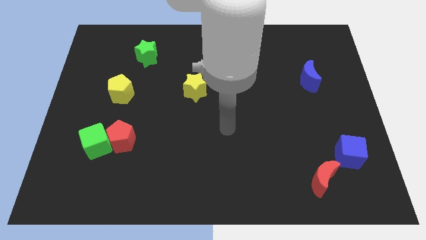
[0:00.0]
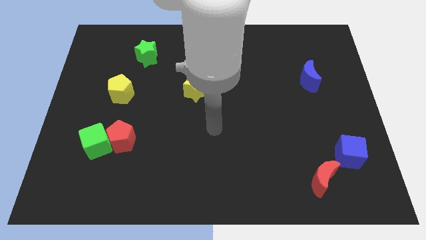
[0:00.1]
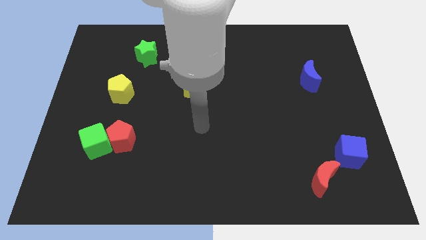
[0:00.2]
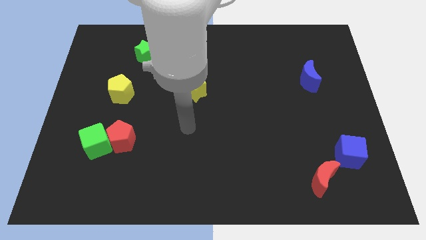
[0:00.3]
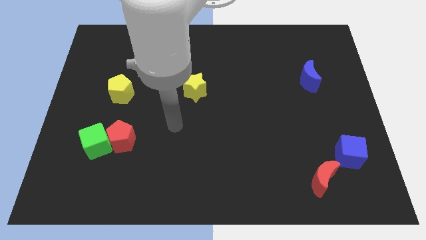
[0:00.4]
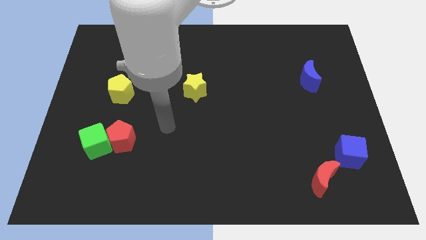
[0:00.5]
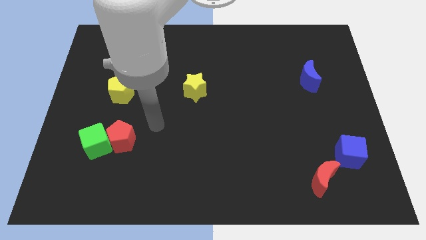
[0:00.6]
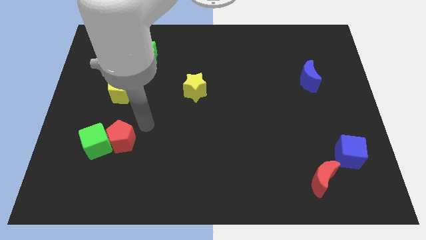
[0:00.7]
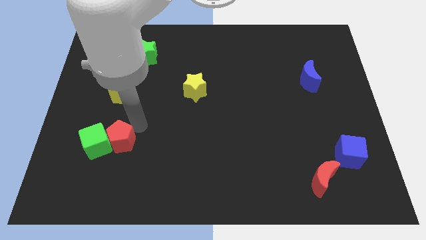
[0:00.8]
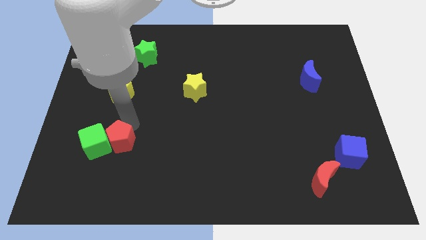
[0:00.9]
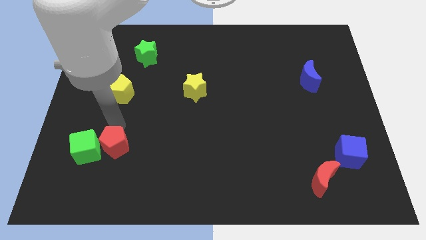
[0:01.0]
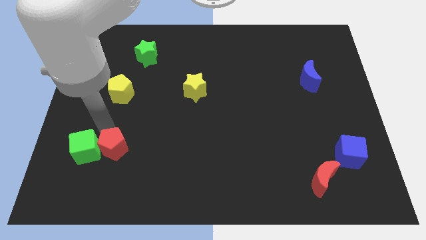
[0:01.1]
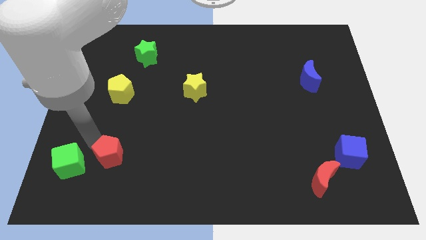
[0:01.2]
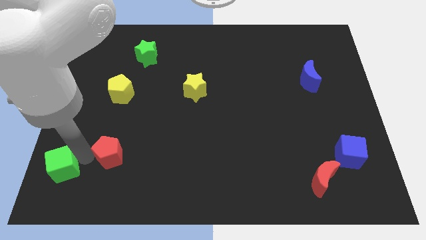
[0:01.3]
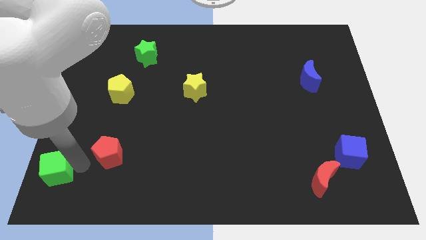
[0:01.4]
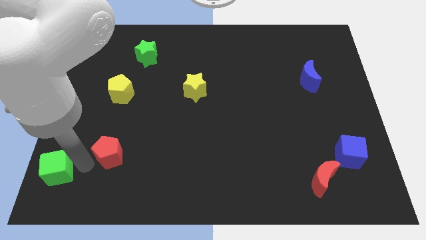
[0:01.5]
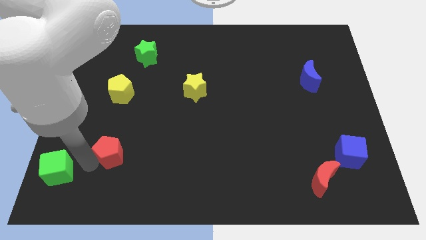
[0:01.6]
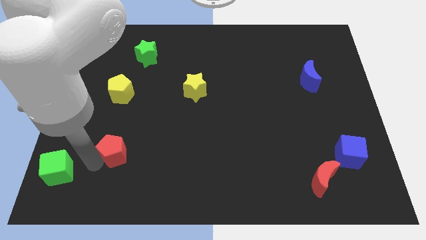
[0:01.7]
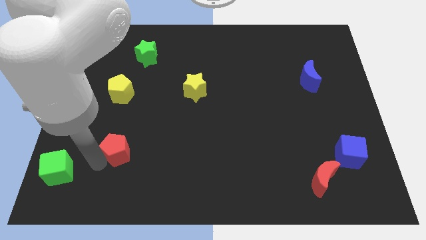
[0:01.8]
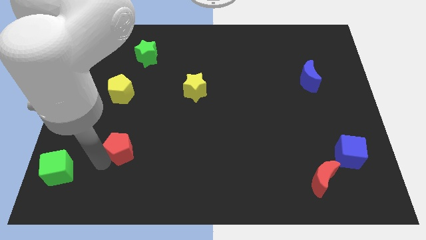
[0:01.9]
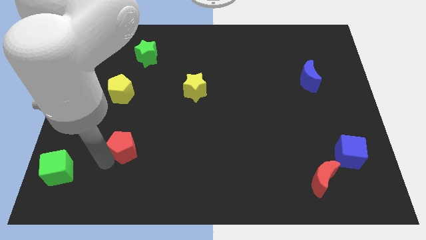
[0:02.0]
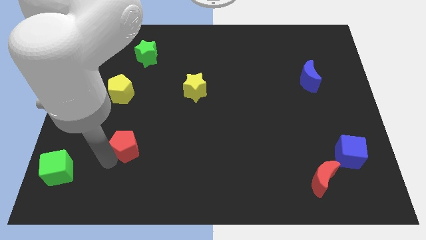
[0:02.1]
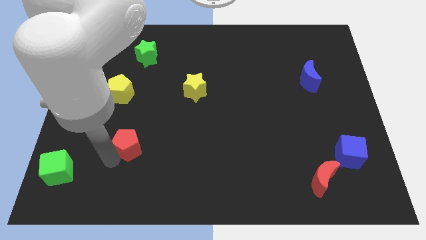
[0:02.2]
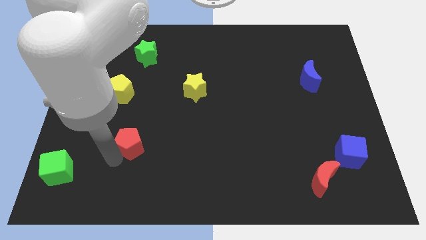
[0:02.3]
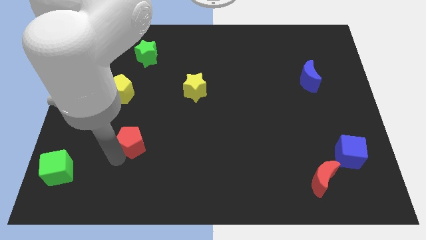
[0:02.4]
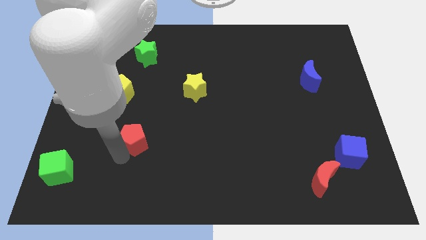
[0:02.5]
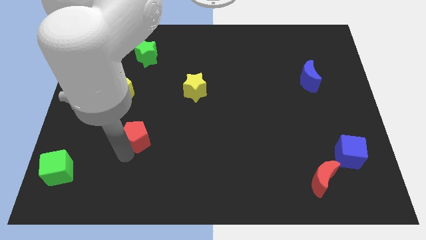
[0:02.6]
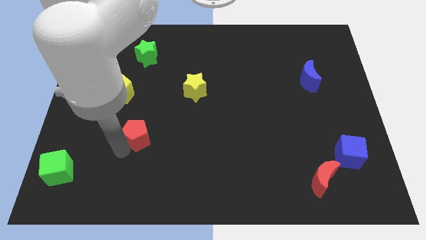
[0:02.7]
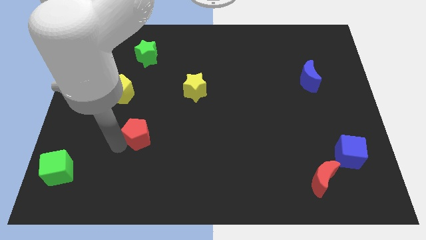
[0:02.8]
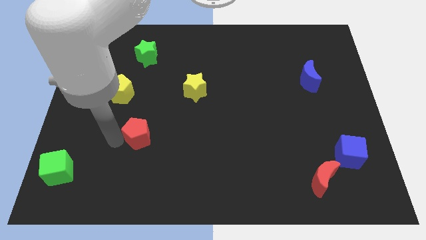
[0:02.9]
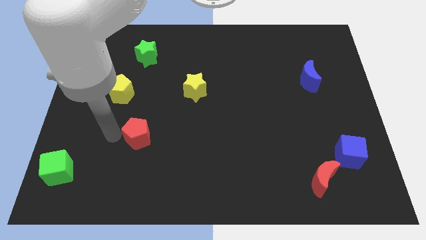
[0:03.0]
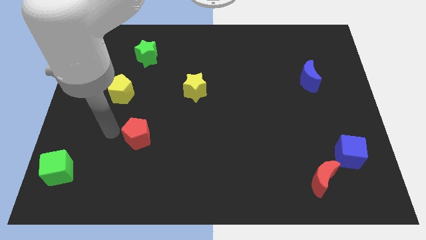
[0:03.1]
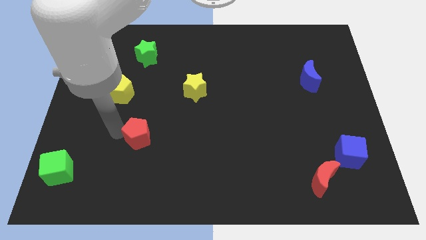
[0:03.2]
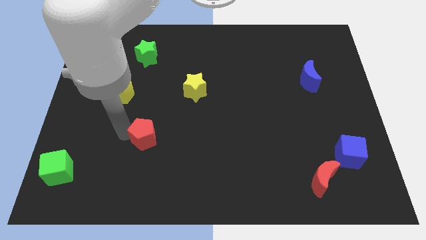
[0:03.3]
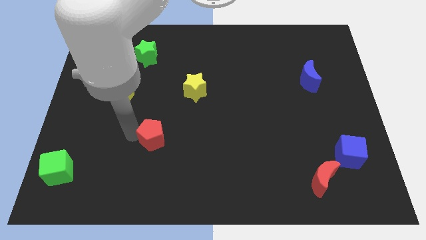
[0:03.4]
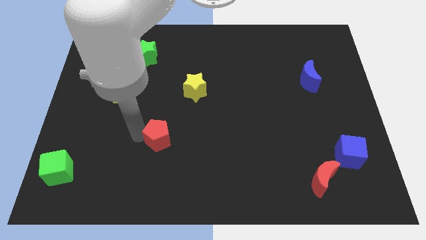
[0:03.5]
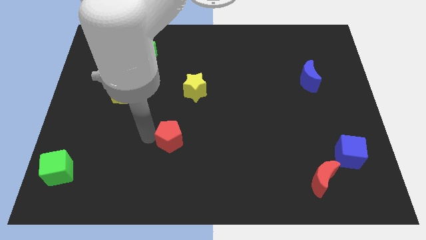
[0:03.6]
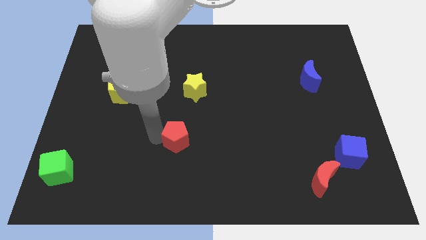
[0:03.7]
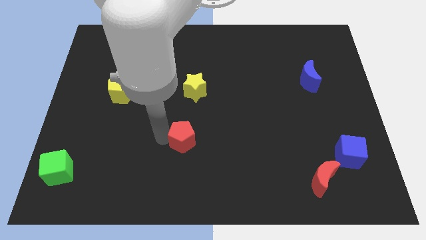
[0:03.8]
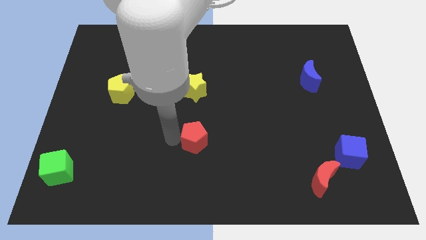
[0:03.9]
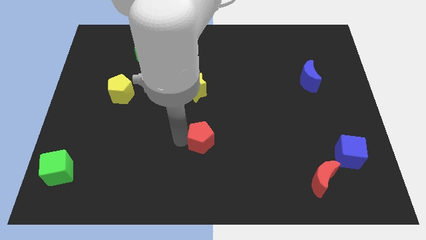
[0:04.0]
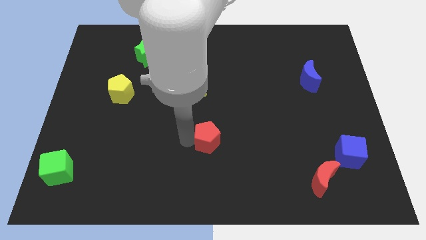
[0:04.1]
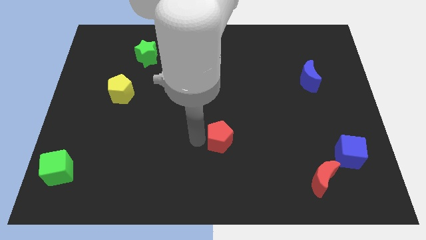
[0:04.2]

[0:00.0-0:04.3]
slide the red pentagon to the right

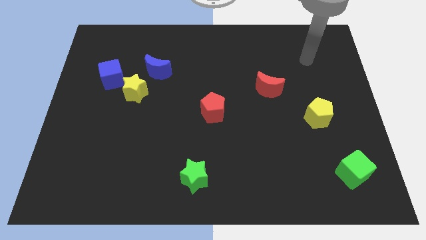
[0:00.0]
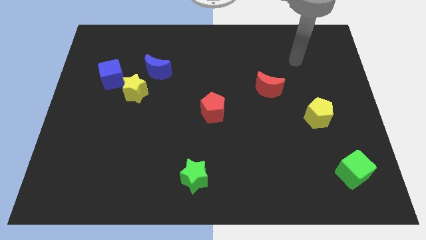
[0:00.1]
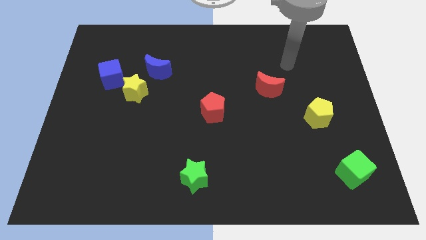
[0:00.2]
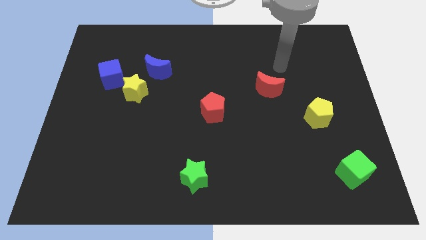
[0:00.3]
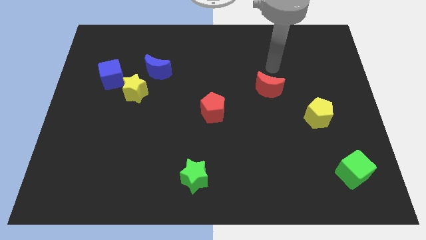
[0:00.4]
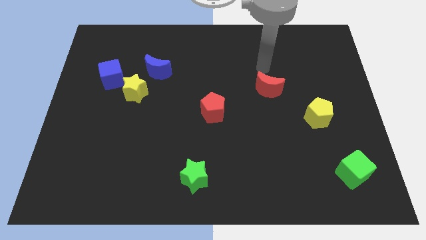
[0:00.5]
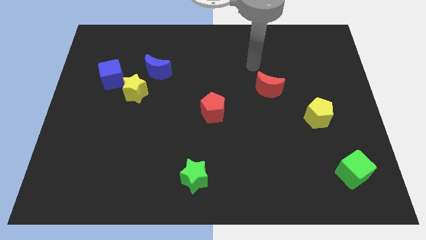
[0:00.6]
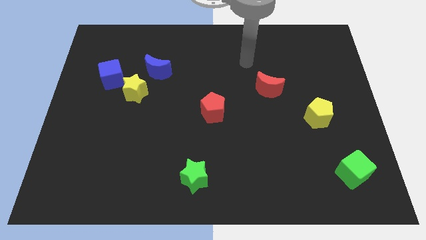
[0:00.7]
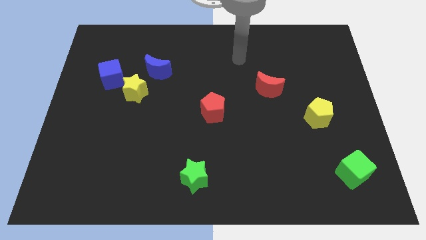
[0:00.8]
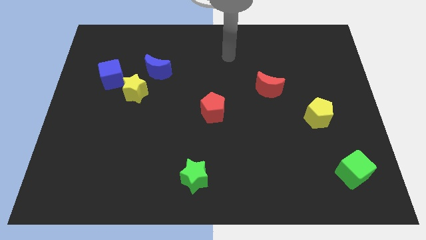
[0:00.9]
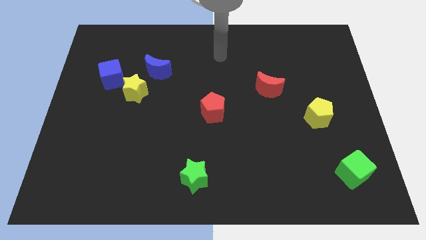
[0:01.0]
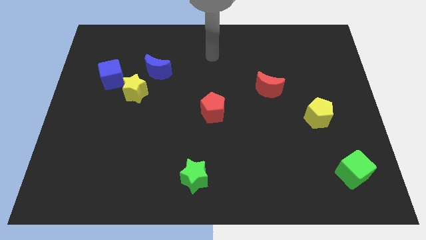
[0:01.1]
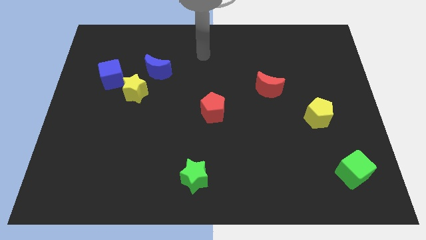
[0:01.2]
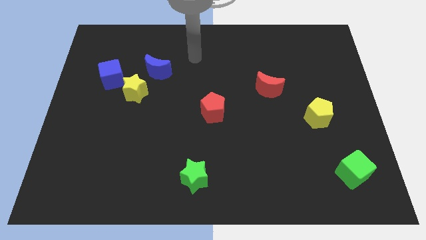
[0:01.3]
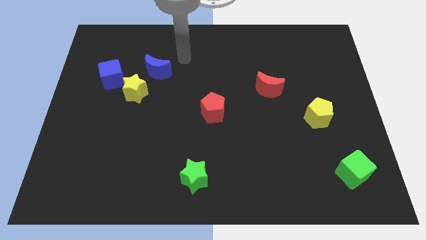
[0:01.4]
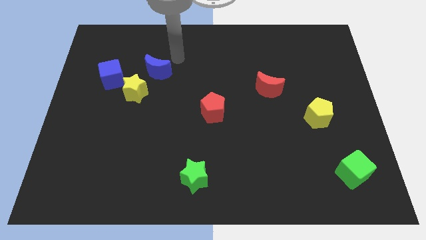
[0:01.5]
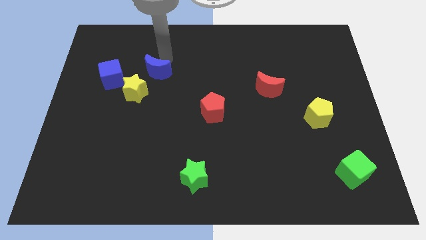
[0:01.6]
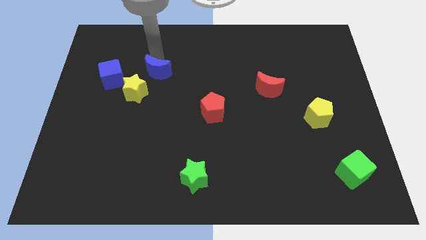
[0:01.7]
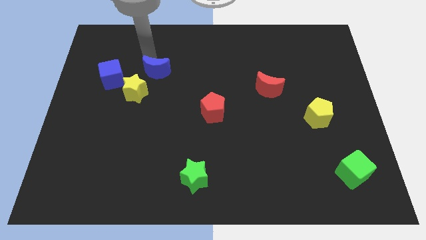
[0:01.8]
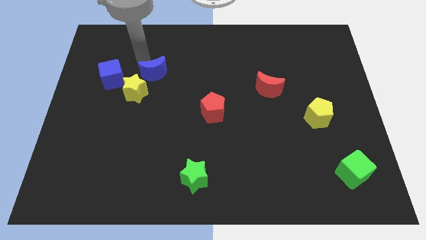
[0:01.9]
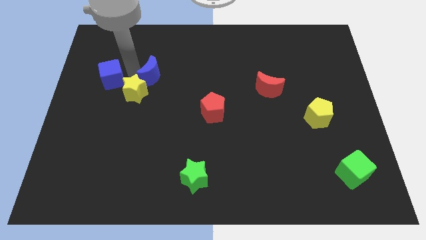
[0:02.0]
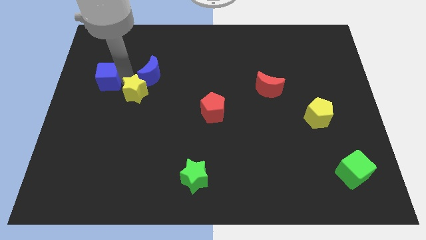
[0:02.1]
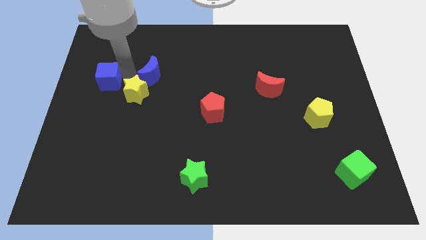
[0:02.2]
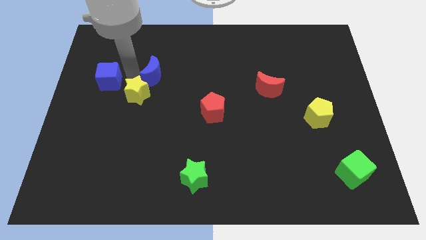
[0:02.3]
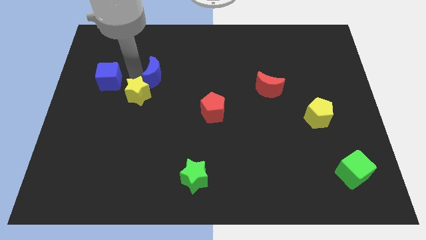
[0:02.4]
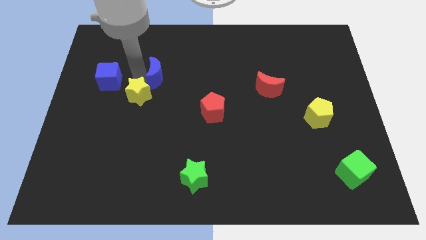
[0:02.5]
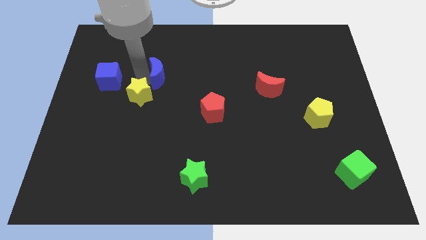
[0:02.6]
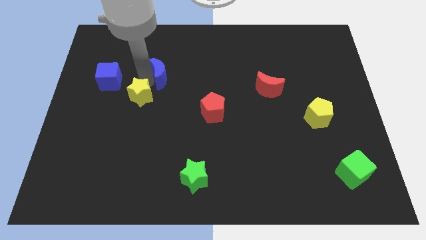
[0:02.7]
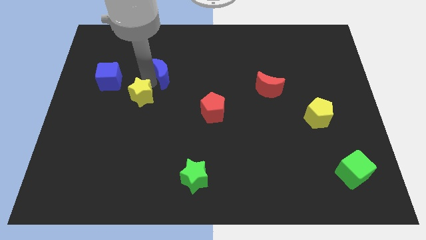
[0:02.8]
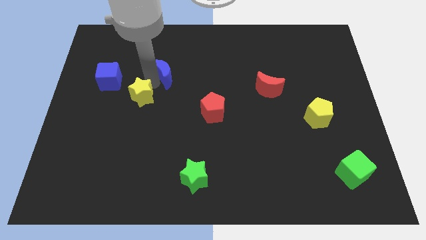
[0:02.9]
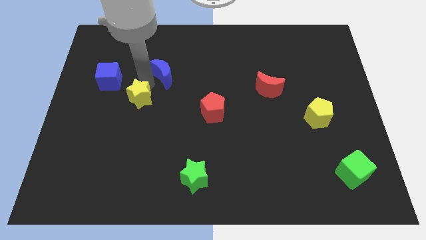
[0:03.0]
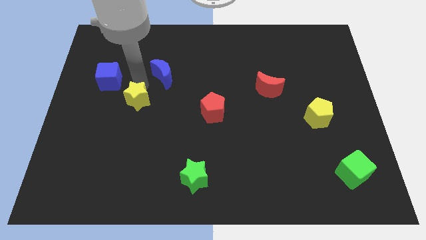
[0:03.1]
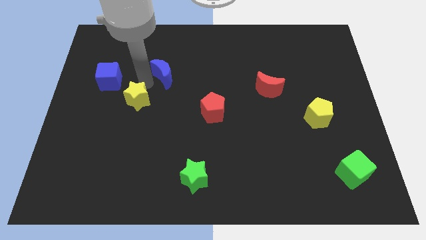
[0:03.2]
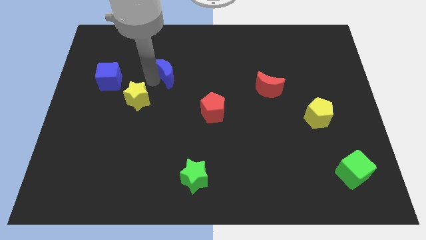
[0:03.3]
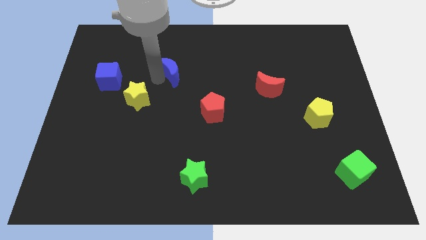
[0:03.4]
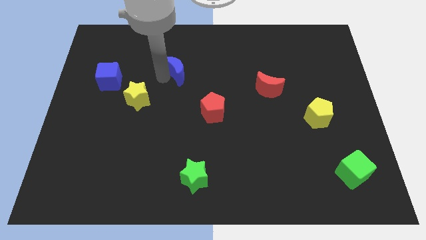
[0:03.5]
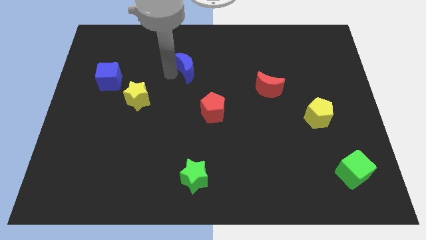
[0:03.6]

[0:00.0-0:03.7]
slightly move the blue moon to the right

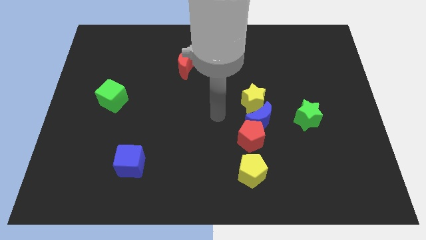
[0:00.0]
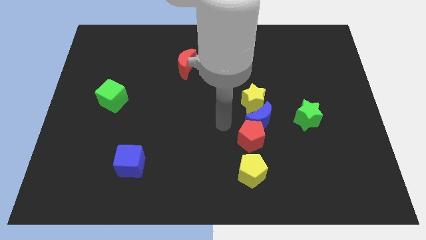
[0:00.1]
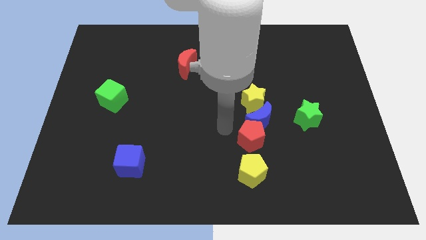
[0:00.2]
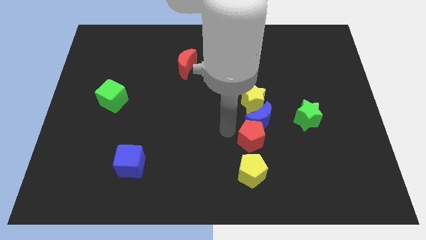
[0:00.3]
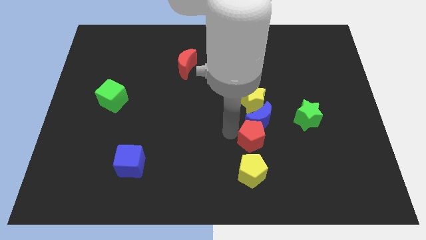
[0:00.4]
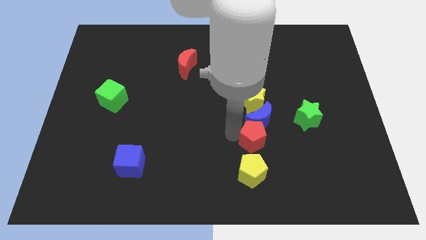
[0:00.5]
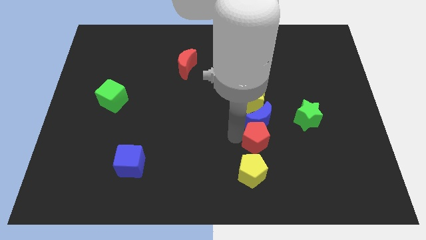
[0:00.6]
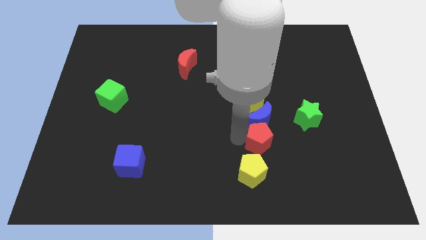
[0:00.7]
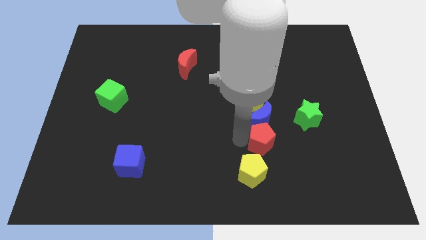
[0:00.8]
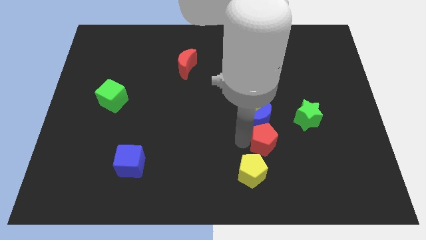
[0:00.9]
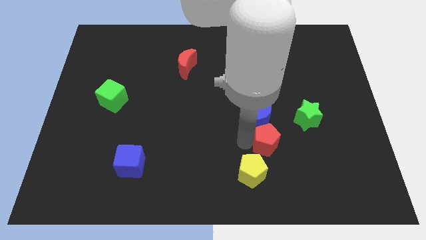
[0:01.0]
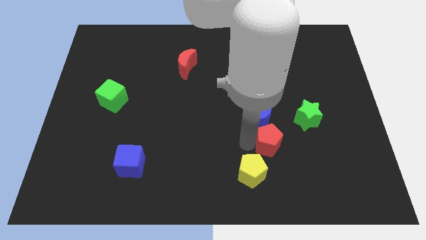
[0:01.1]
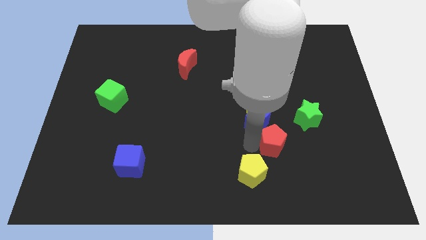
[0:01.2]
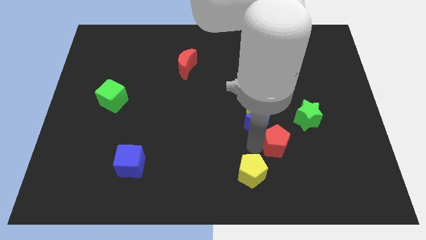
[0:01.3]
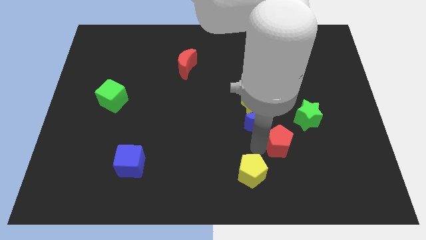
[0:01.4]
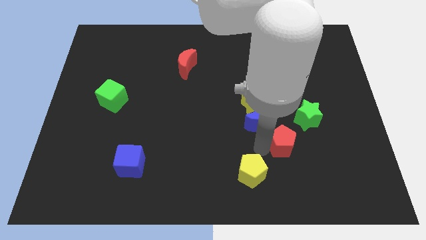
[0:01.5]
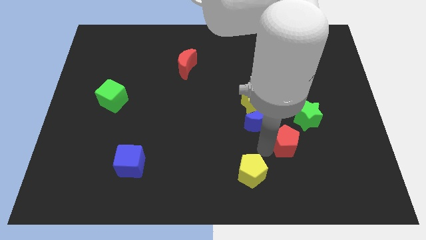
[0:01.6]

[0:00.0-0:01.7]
push the red pentagon a bit right
